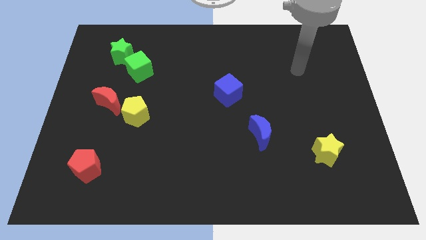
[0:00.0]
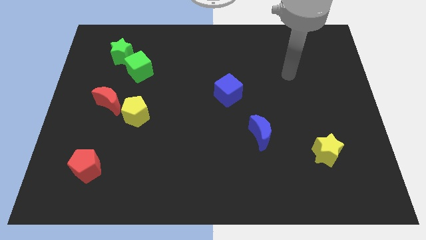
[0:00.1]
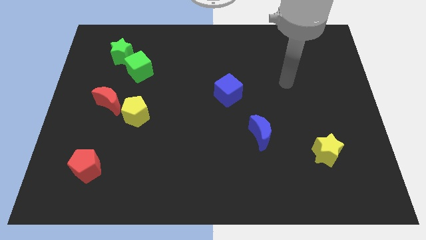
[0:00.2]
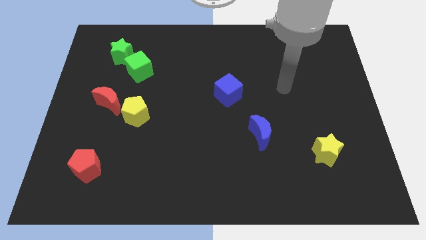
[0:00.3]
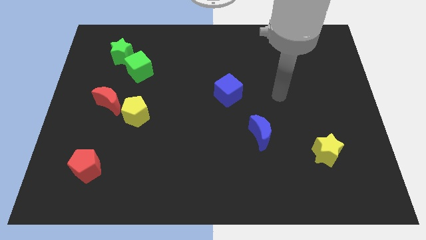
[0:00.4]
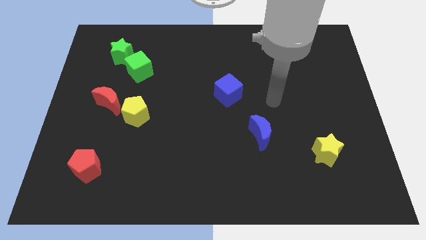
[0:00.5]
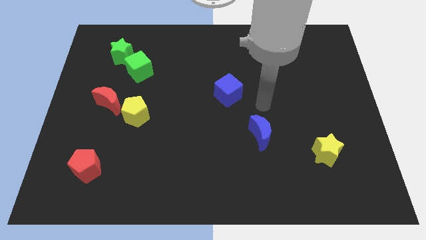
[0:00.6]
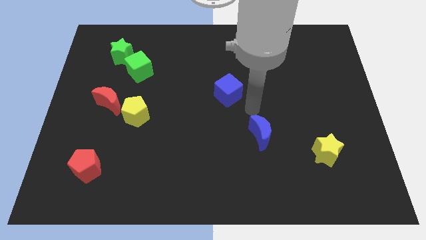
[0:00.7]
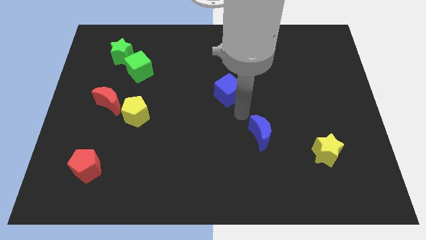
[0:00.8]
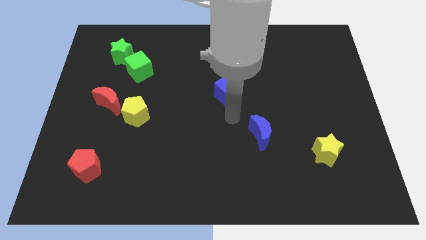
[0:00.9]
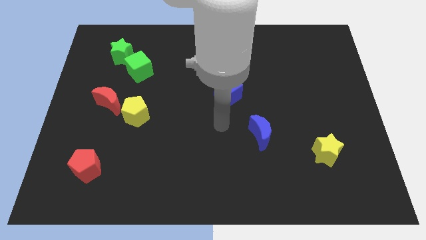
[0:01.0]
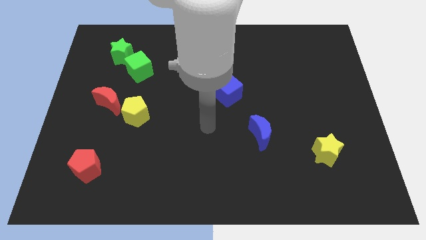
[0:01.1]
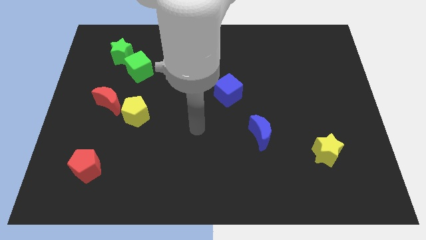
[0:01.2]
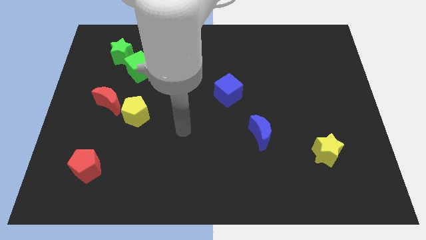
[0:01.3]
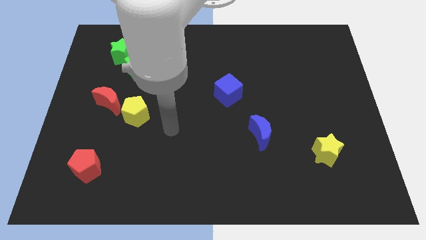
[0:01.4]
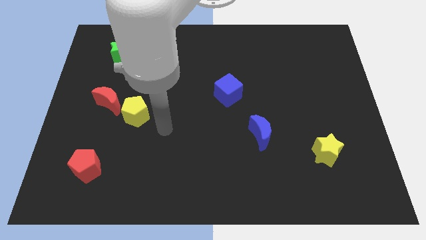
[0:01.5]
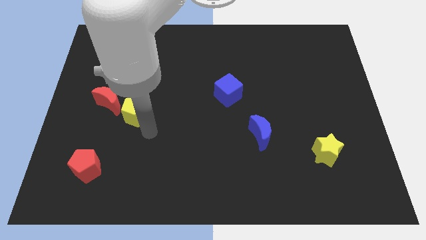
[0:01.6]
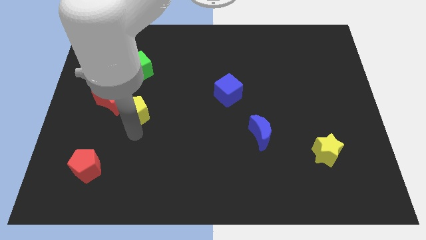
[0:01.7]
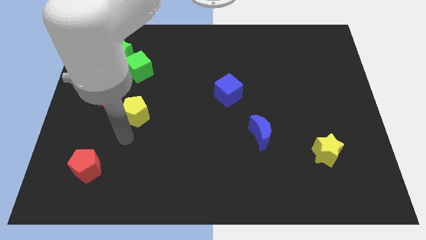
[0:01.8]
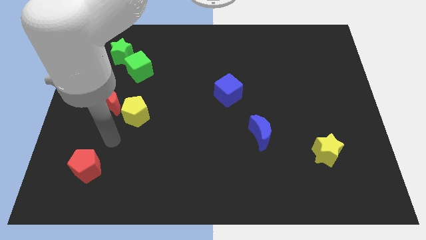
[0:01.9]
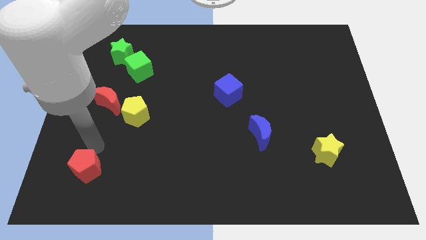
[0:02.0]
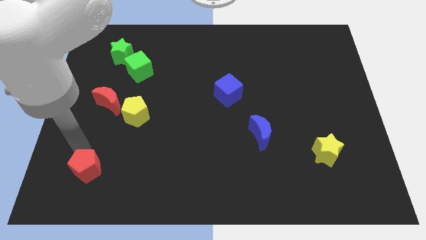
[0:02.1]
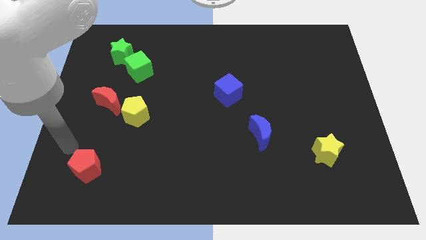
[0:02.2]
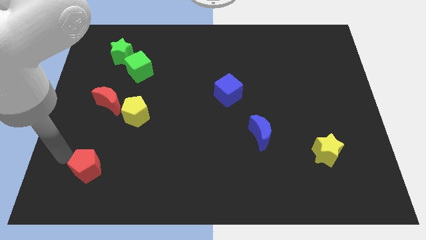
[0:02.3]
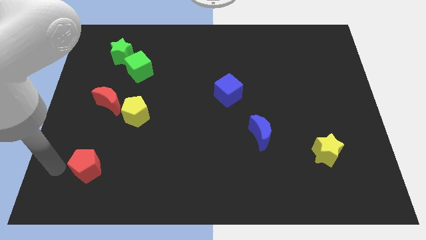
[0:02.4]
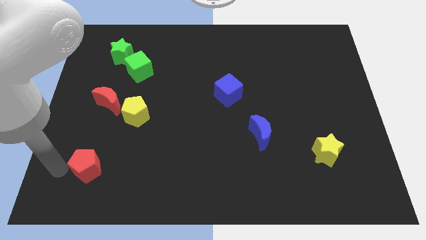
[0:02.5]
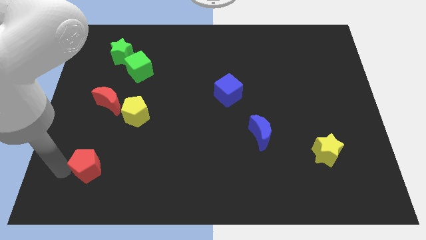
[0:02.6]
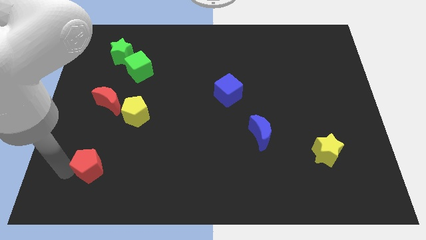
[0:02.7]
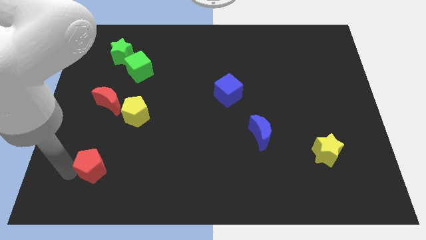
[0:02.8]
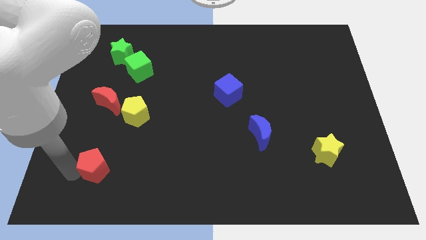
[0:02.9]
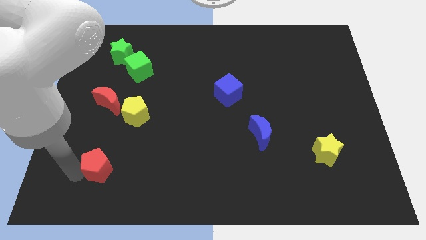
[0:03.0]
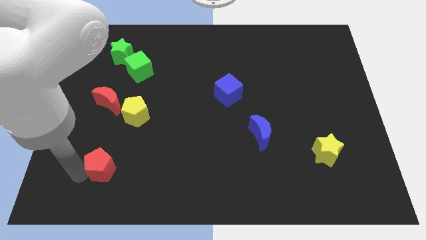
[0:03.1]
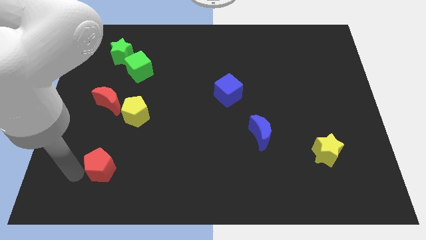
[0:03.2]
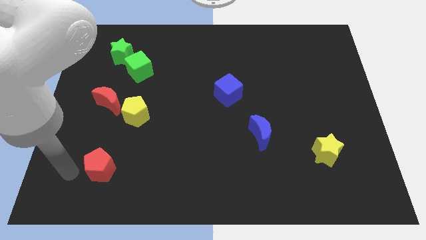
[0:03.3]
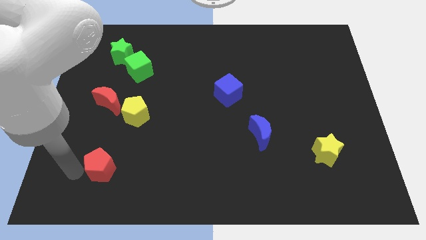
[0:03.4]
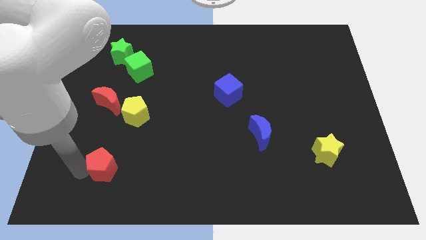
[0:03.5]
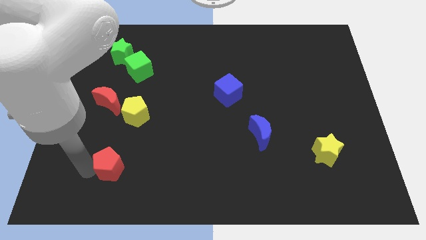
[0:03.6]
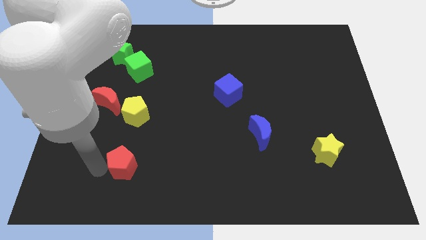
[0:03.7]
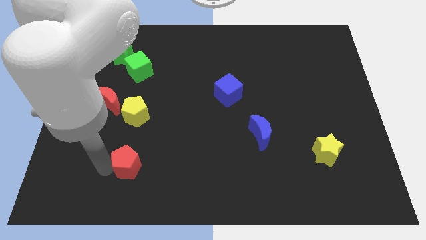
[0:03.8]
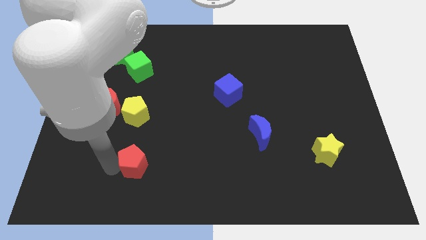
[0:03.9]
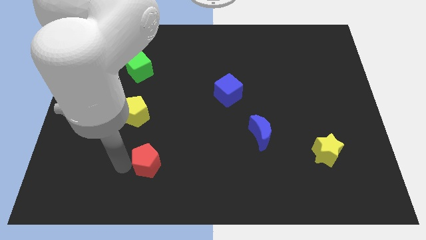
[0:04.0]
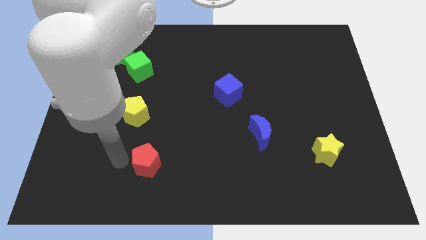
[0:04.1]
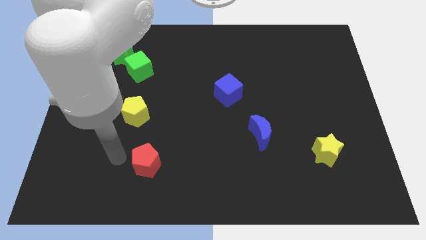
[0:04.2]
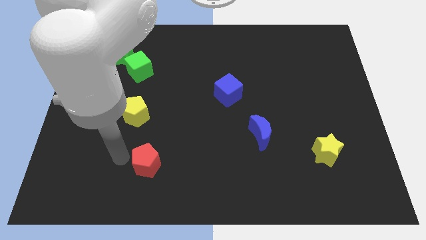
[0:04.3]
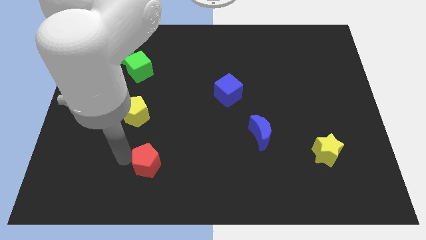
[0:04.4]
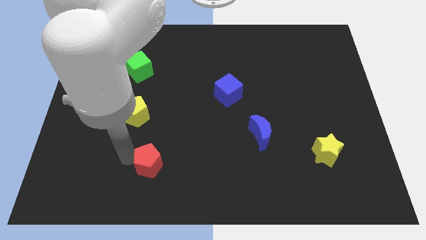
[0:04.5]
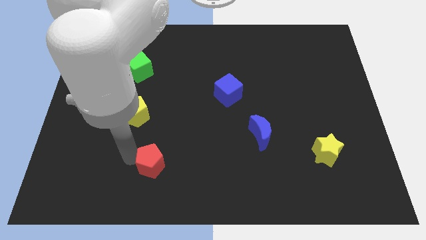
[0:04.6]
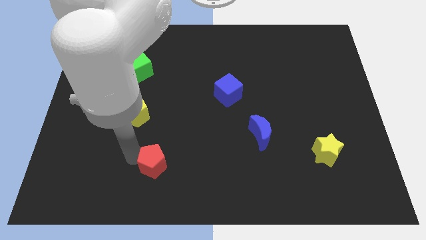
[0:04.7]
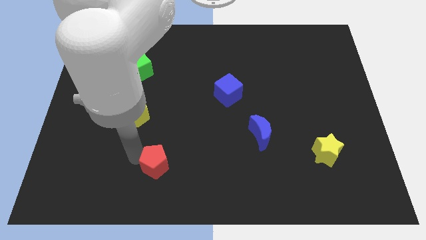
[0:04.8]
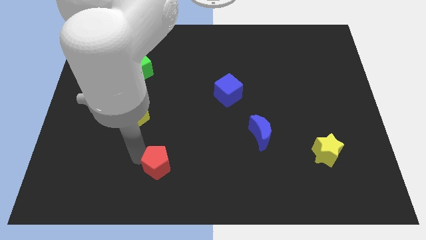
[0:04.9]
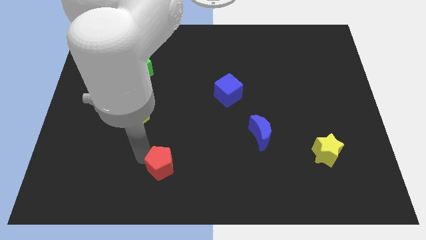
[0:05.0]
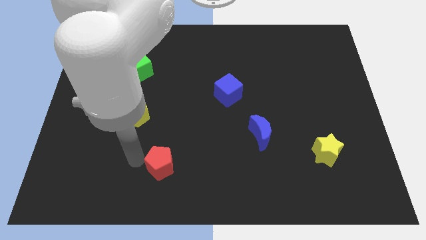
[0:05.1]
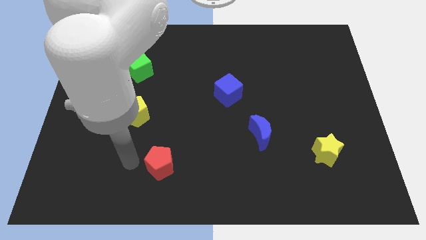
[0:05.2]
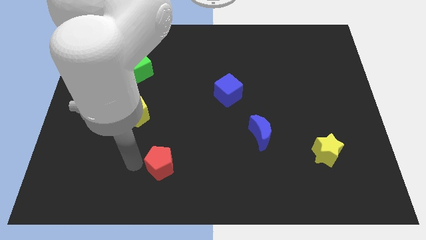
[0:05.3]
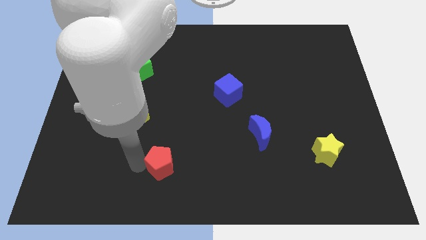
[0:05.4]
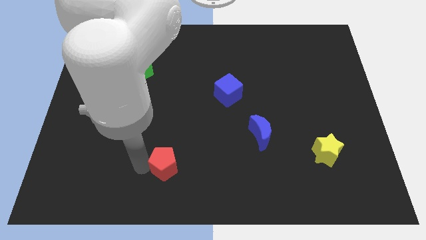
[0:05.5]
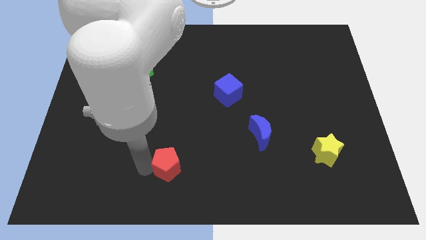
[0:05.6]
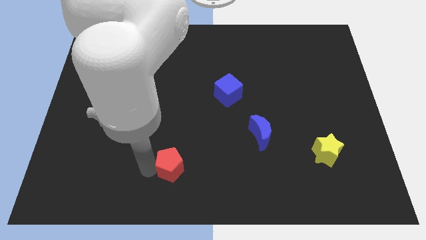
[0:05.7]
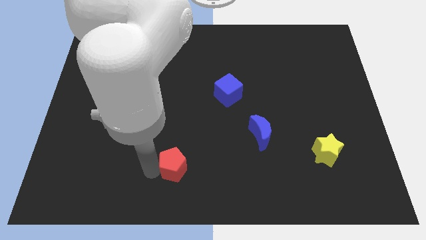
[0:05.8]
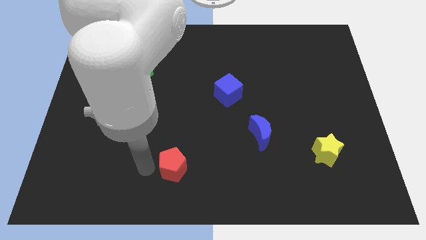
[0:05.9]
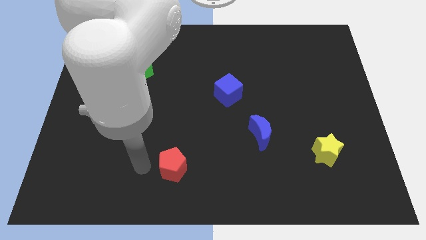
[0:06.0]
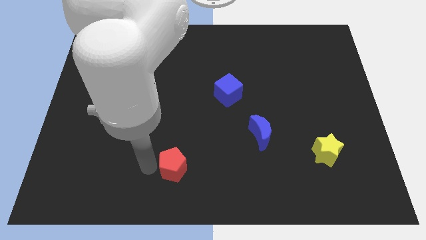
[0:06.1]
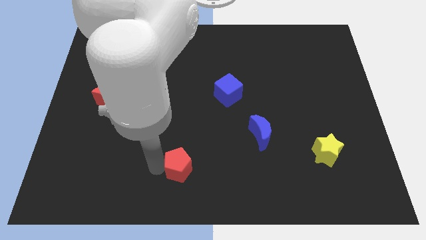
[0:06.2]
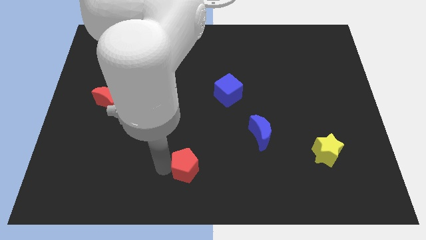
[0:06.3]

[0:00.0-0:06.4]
slide the red pentagon to the right

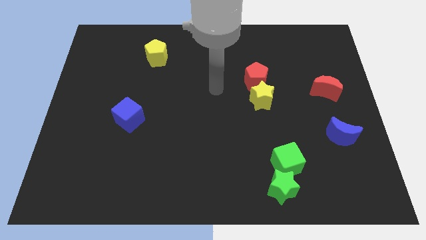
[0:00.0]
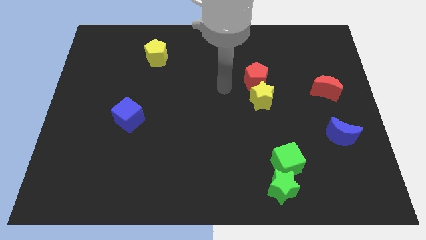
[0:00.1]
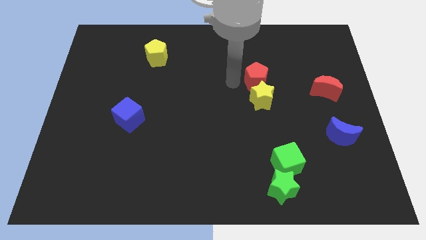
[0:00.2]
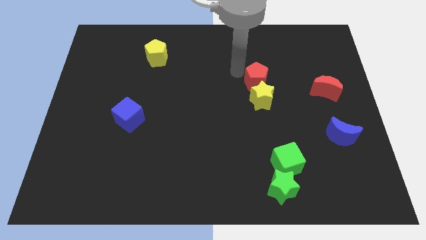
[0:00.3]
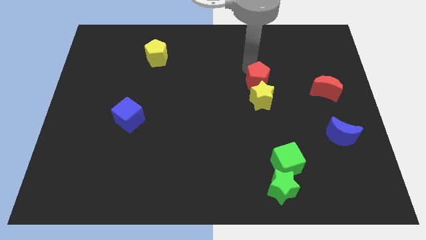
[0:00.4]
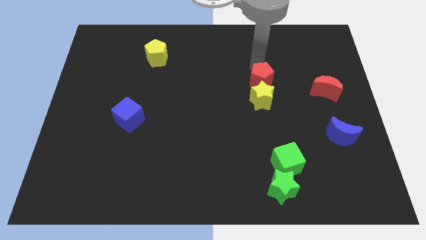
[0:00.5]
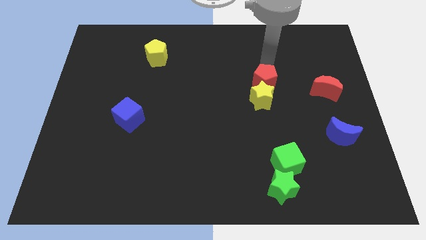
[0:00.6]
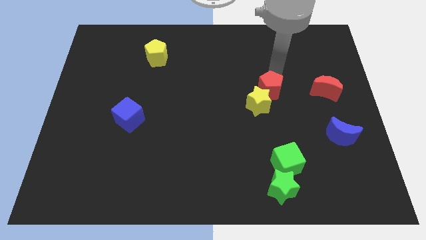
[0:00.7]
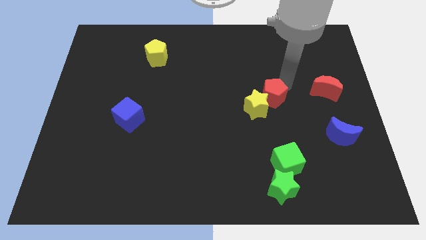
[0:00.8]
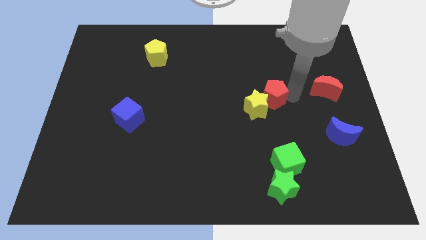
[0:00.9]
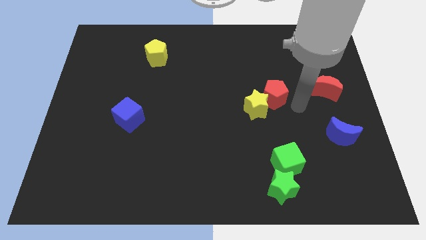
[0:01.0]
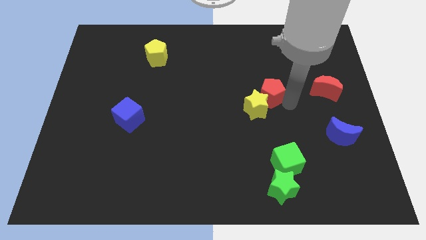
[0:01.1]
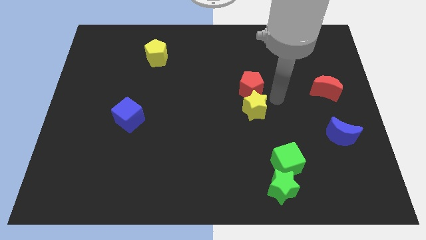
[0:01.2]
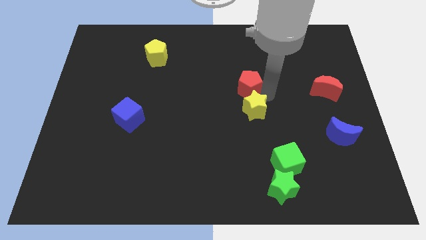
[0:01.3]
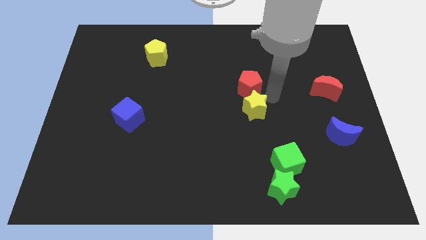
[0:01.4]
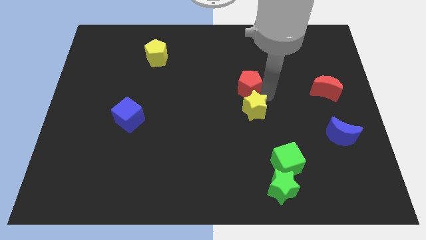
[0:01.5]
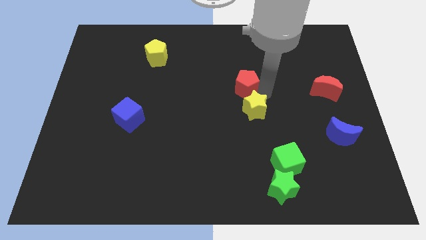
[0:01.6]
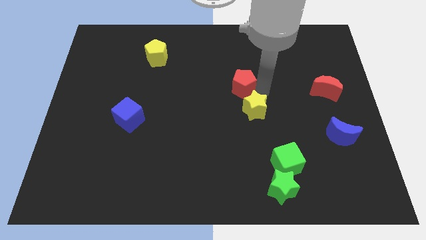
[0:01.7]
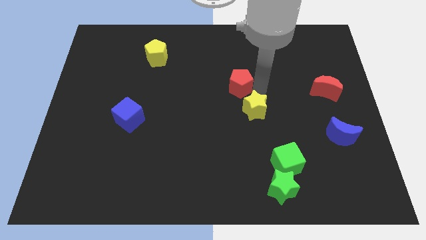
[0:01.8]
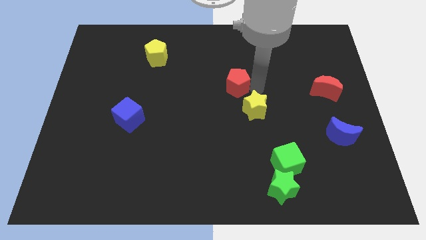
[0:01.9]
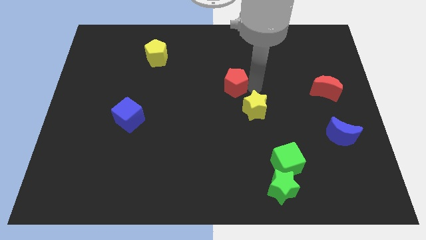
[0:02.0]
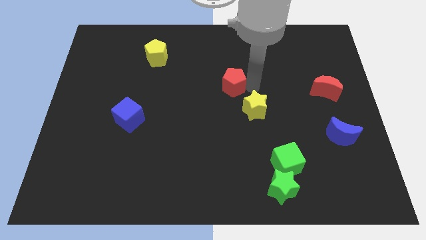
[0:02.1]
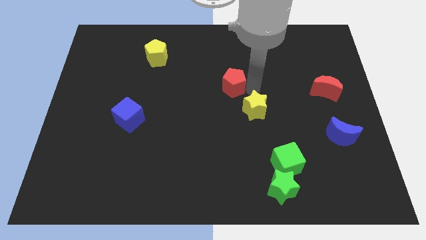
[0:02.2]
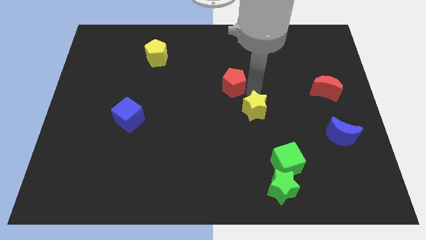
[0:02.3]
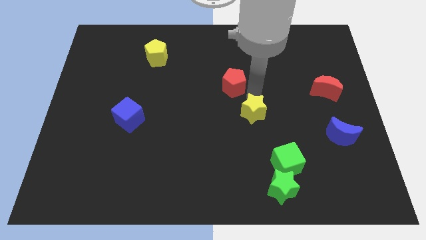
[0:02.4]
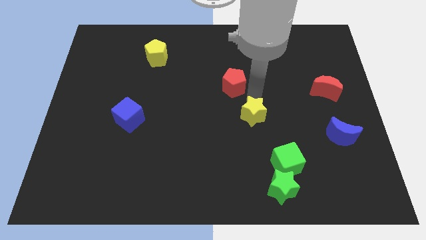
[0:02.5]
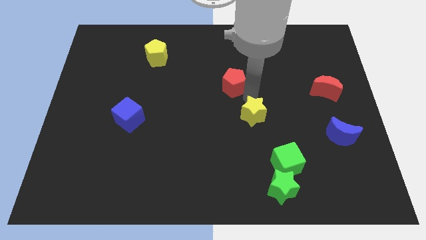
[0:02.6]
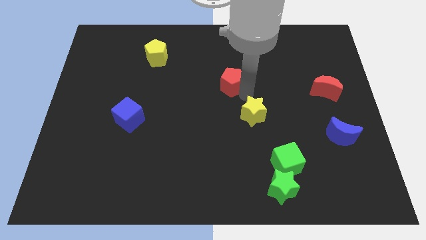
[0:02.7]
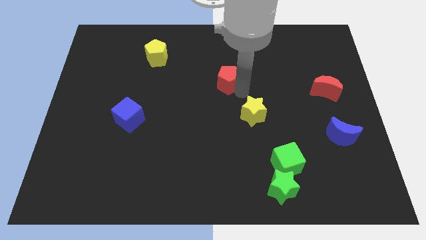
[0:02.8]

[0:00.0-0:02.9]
slide the red pentagon a bit left
